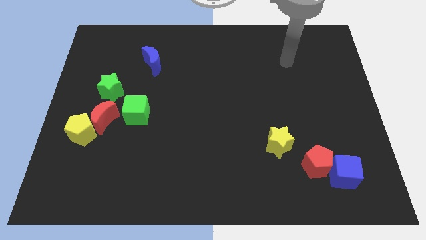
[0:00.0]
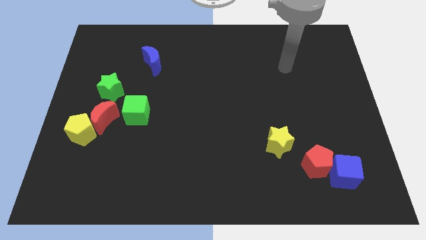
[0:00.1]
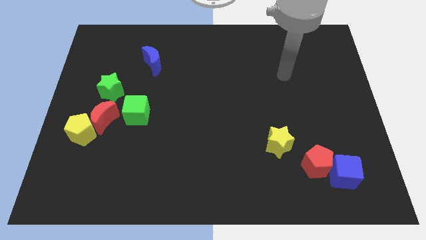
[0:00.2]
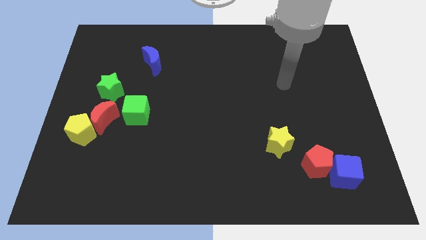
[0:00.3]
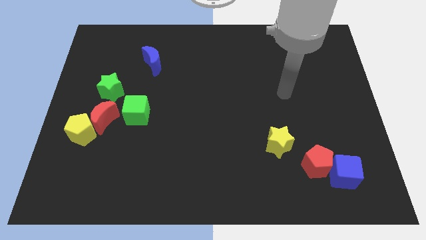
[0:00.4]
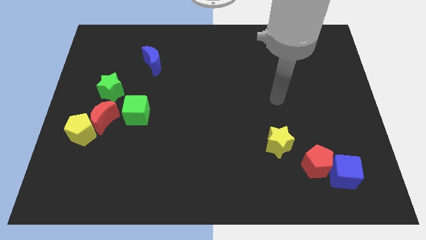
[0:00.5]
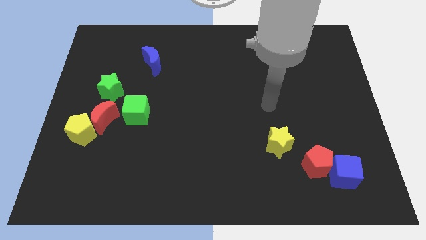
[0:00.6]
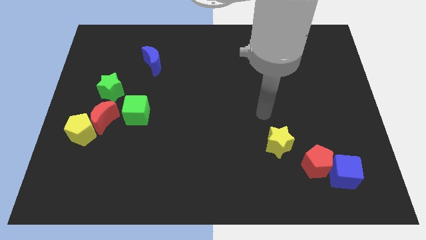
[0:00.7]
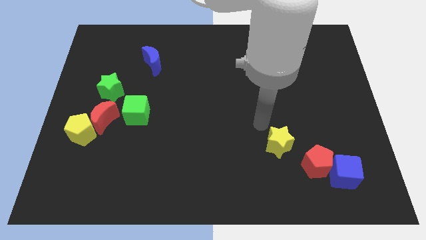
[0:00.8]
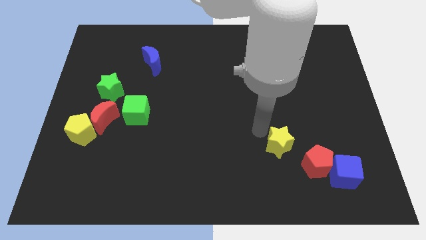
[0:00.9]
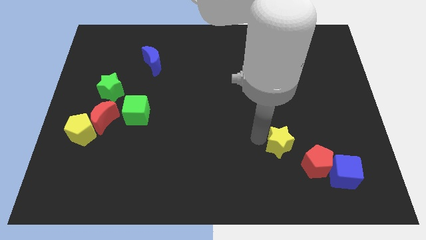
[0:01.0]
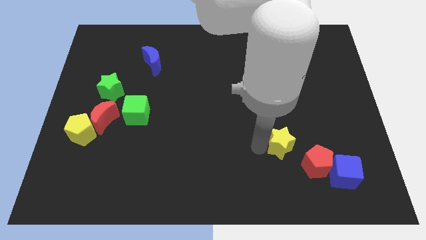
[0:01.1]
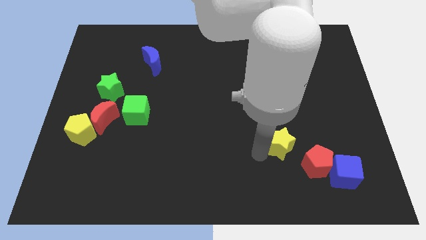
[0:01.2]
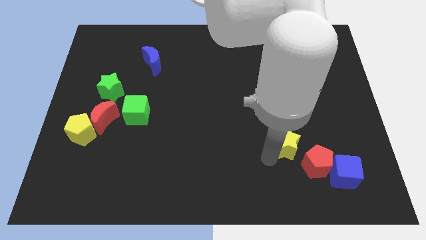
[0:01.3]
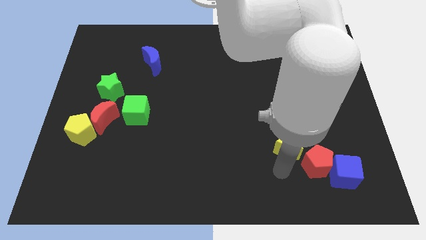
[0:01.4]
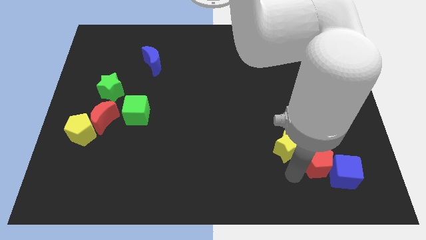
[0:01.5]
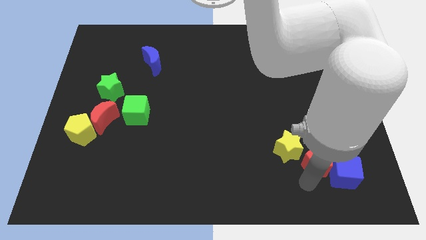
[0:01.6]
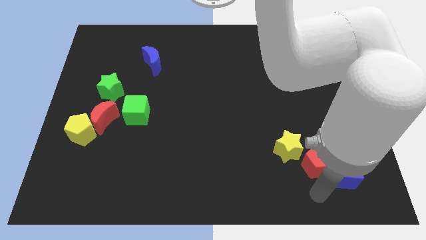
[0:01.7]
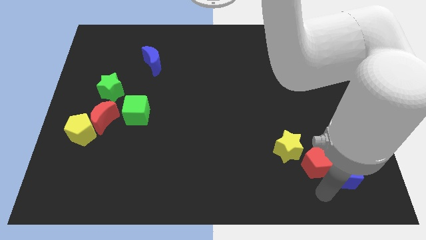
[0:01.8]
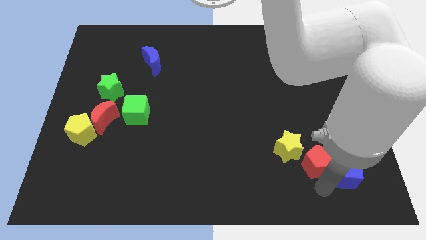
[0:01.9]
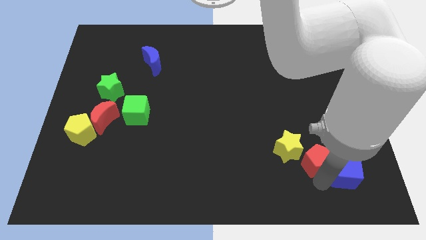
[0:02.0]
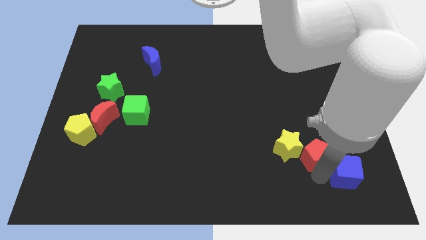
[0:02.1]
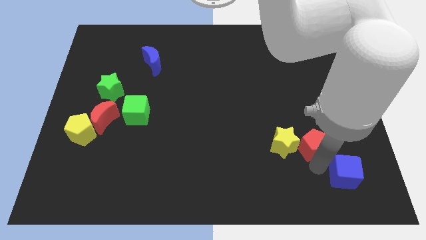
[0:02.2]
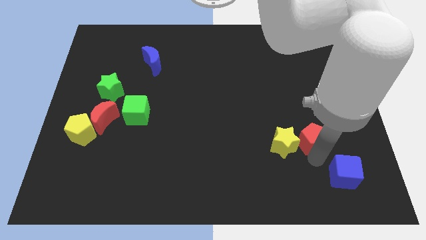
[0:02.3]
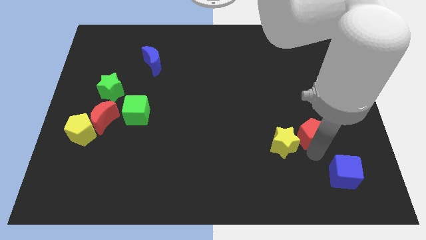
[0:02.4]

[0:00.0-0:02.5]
move the red pentagon a little bit up

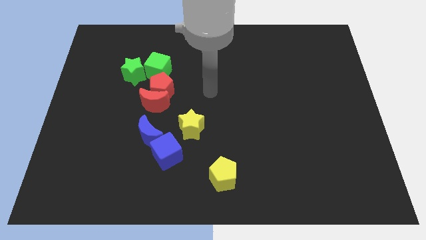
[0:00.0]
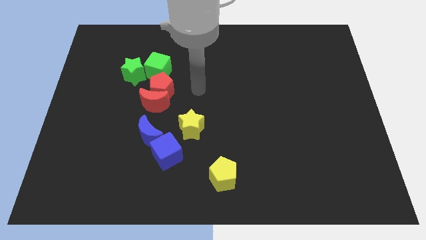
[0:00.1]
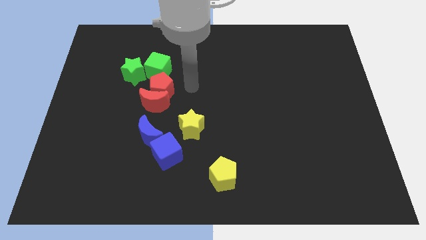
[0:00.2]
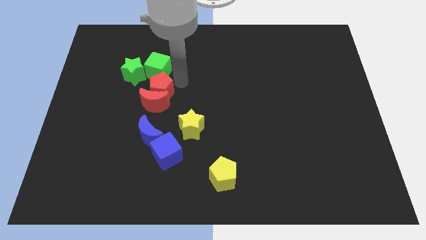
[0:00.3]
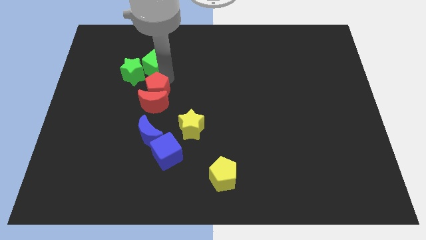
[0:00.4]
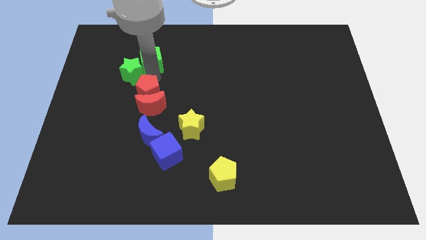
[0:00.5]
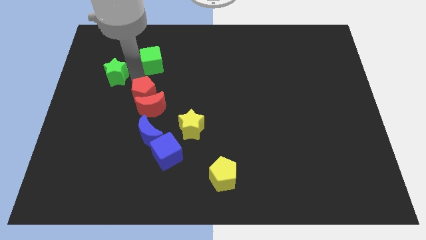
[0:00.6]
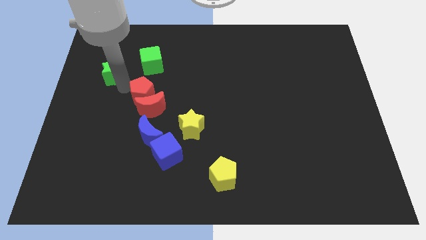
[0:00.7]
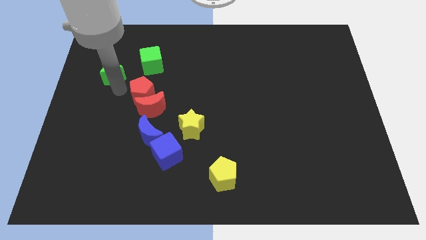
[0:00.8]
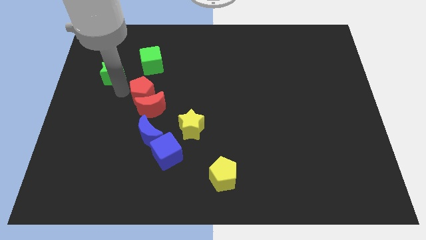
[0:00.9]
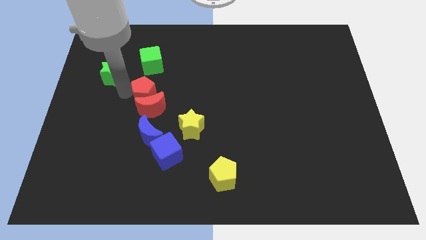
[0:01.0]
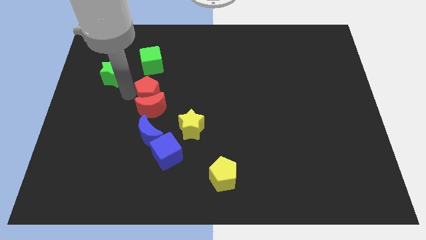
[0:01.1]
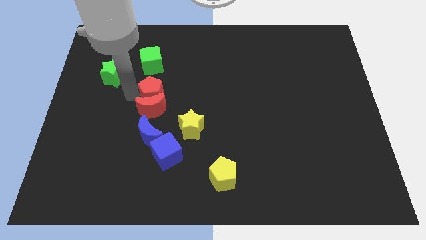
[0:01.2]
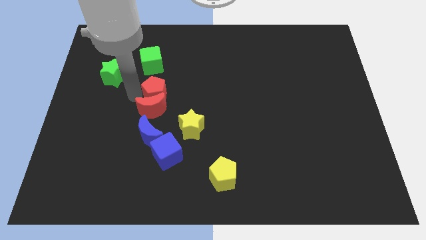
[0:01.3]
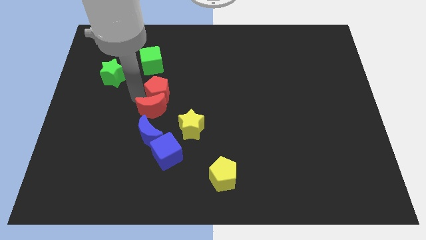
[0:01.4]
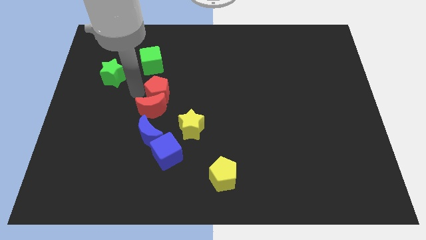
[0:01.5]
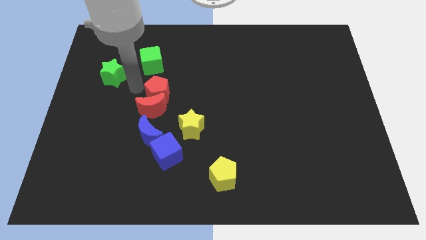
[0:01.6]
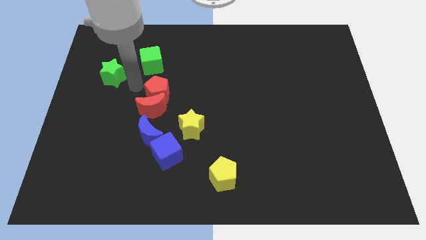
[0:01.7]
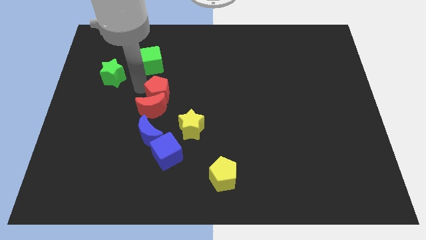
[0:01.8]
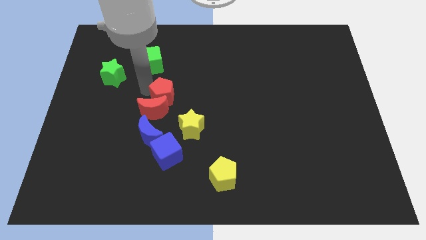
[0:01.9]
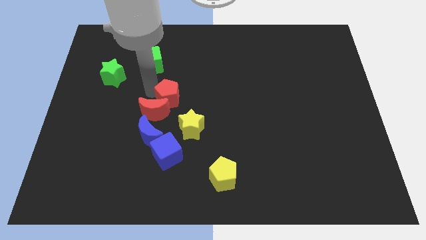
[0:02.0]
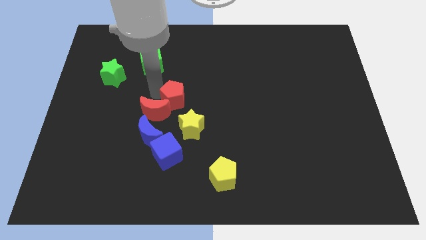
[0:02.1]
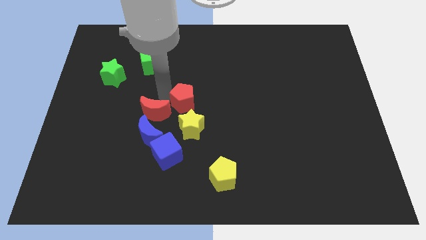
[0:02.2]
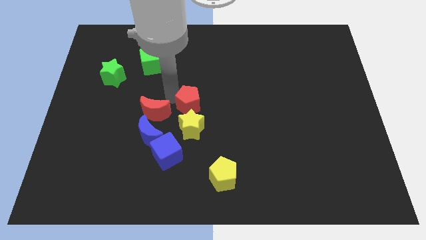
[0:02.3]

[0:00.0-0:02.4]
push the red pentagon diagonally down and right a bit

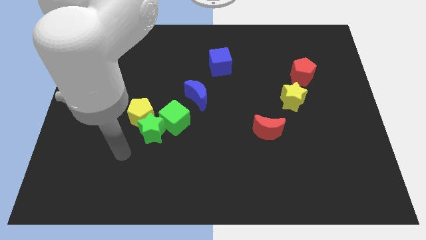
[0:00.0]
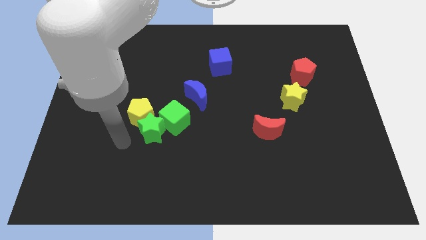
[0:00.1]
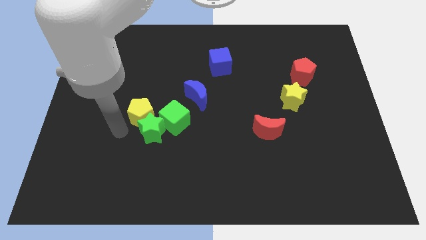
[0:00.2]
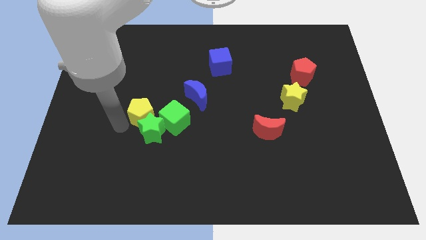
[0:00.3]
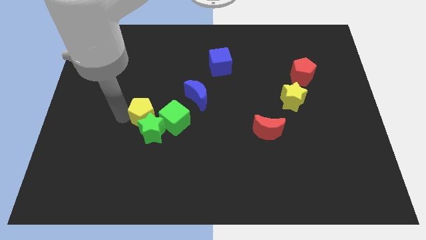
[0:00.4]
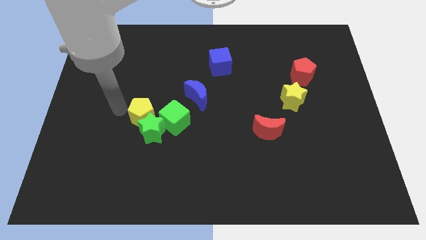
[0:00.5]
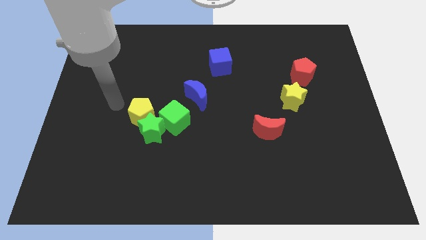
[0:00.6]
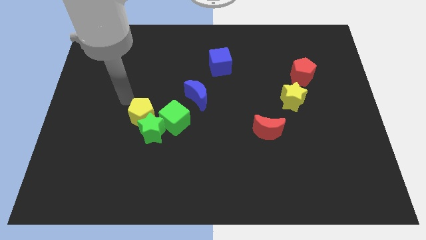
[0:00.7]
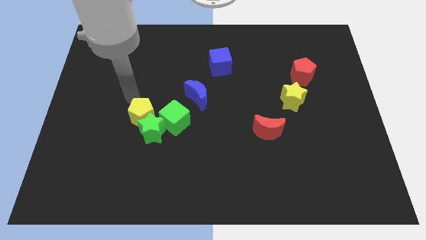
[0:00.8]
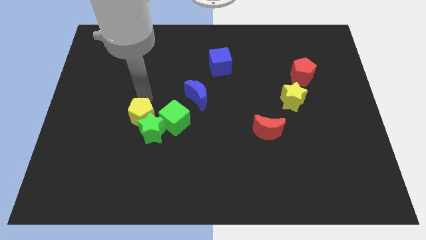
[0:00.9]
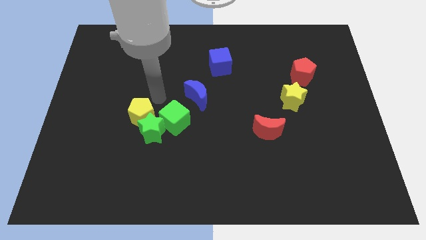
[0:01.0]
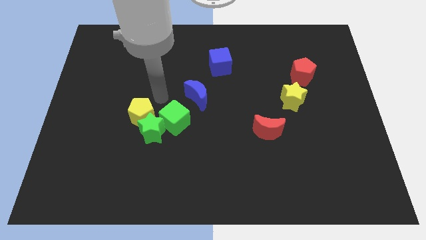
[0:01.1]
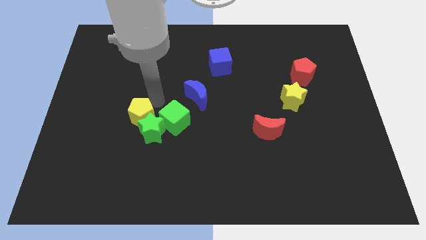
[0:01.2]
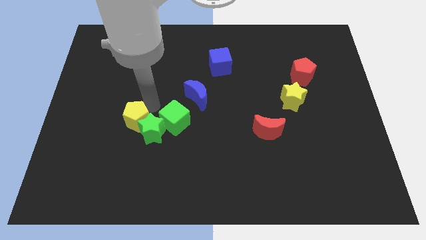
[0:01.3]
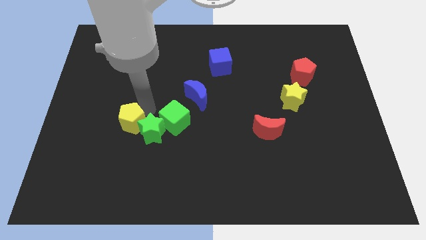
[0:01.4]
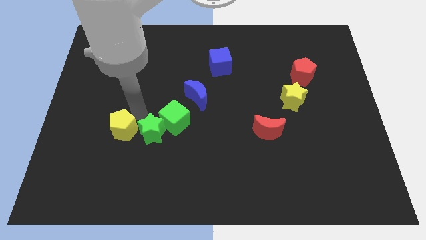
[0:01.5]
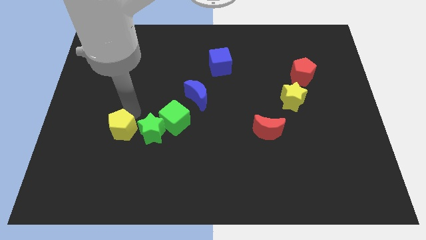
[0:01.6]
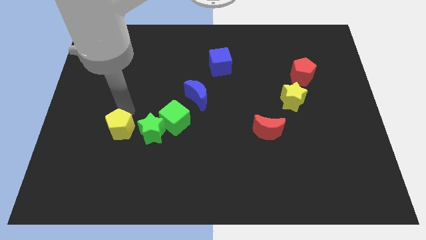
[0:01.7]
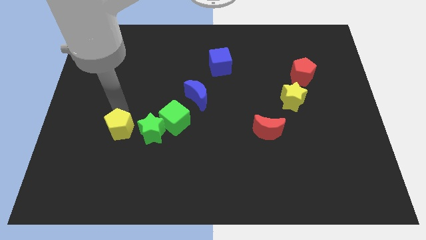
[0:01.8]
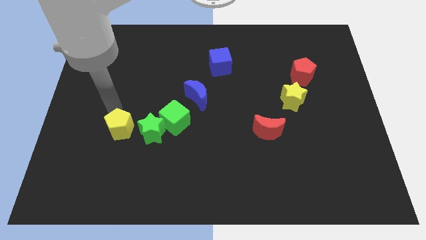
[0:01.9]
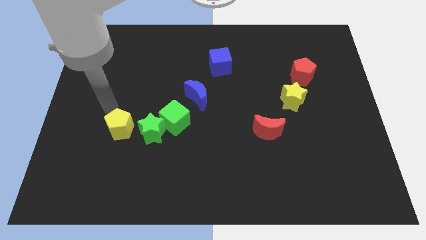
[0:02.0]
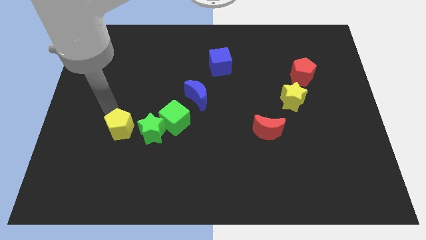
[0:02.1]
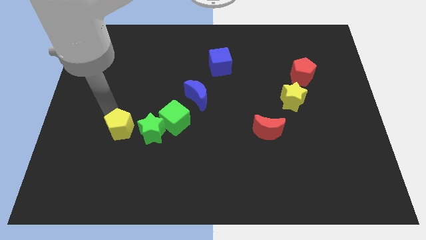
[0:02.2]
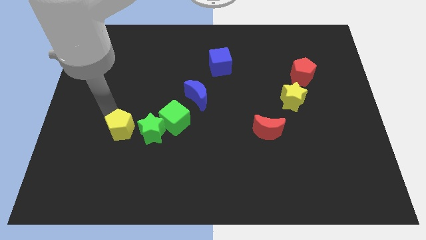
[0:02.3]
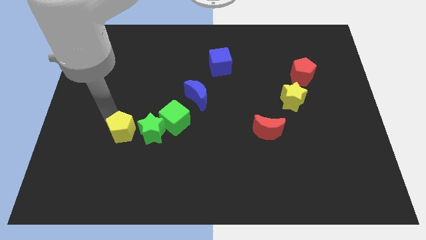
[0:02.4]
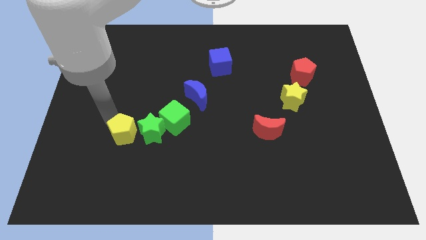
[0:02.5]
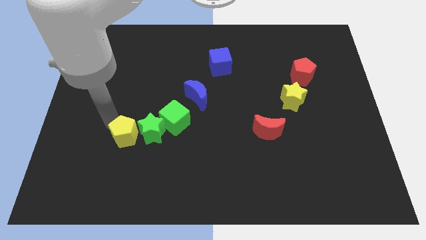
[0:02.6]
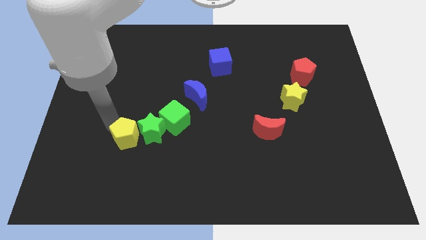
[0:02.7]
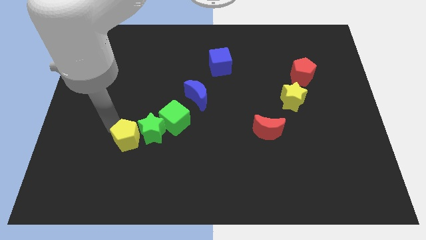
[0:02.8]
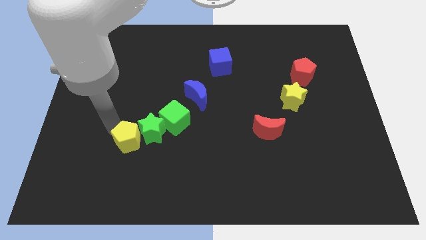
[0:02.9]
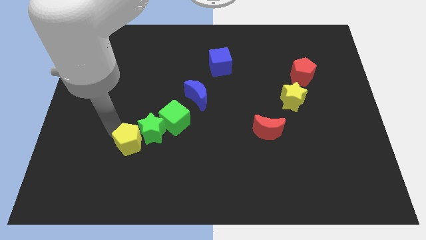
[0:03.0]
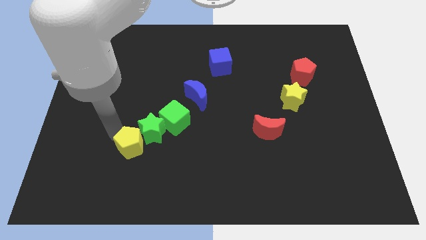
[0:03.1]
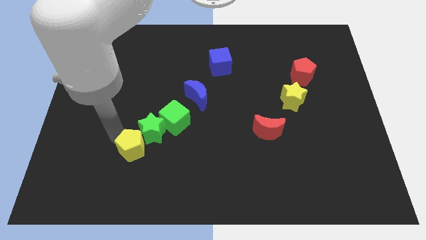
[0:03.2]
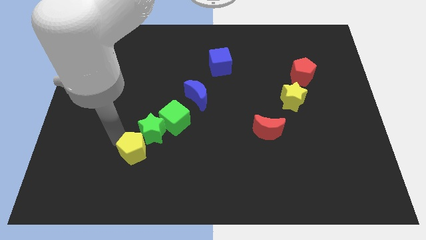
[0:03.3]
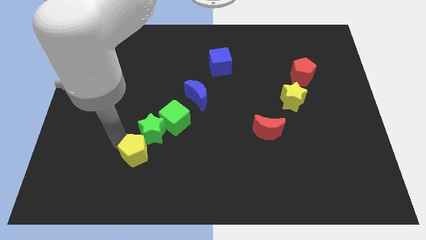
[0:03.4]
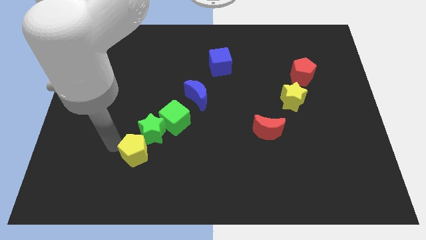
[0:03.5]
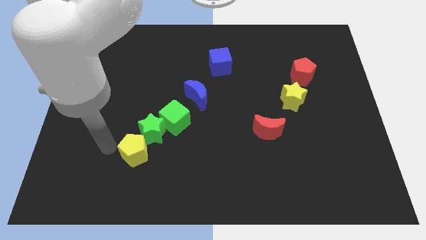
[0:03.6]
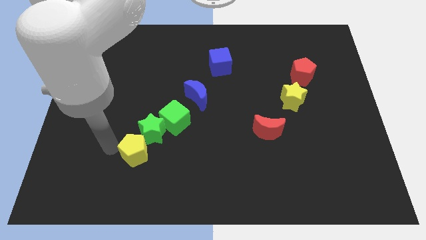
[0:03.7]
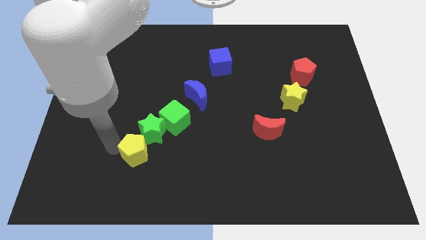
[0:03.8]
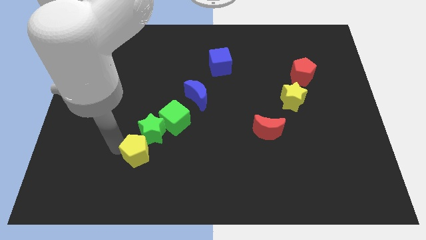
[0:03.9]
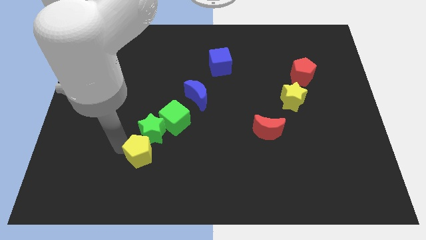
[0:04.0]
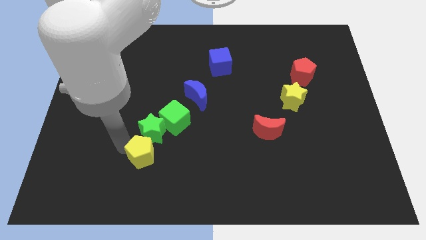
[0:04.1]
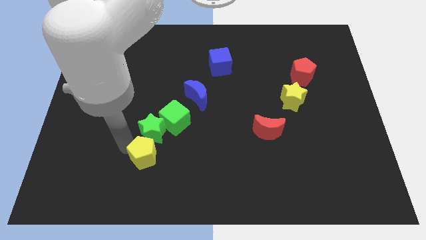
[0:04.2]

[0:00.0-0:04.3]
slightly move the yellow pentagon diagonally downwards and right
